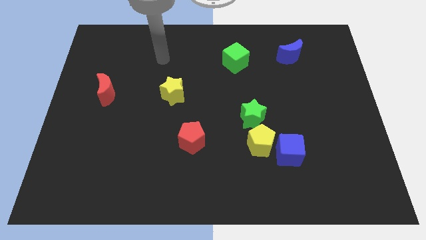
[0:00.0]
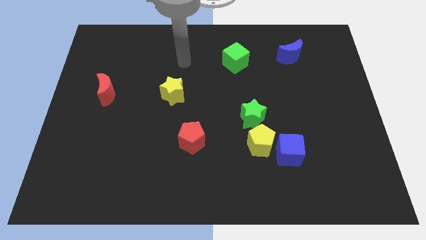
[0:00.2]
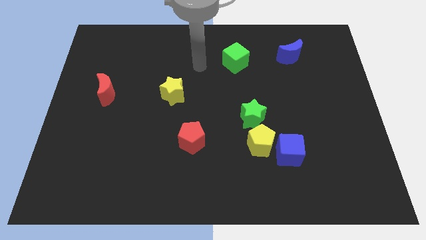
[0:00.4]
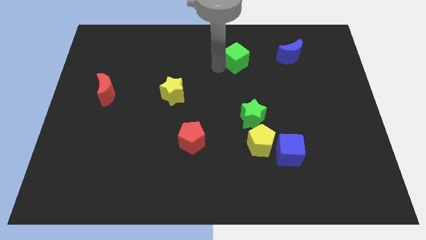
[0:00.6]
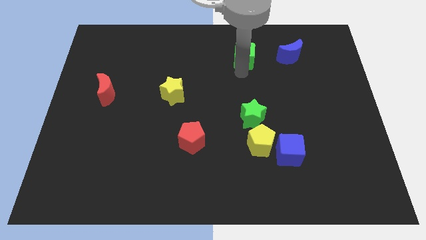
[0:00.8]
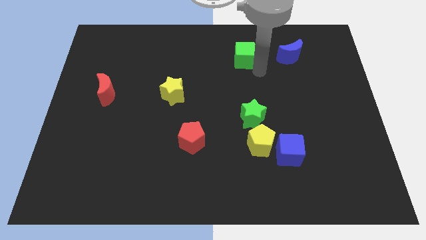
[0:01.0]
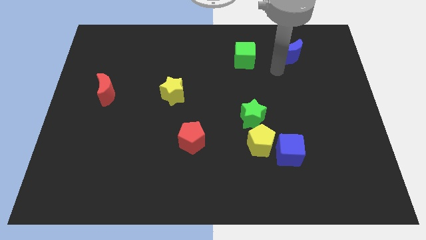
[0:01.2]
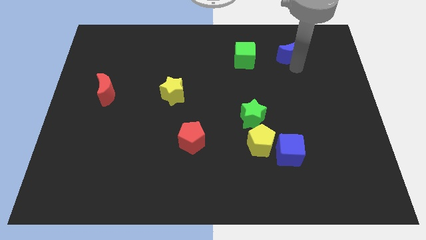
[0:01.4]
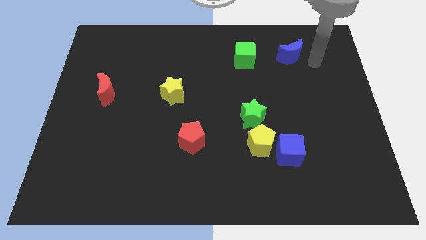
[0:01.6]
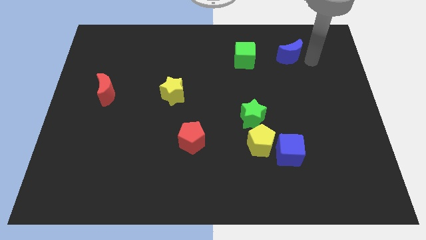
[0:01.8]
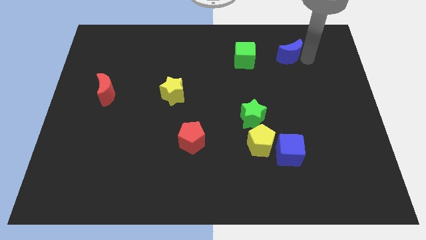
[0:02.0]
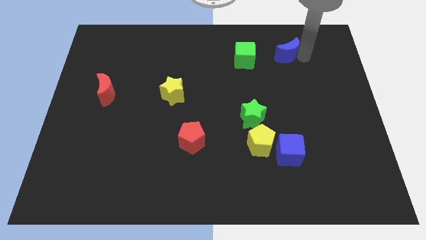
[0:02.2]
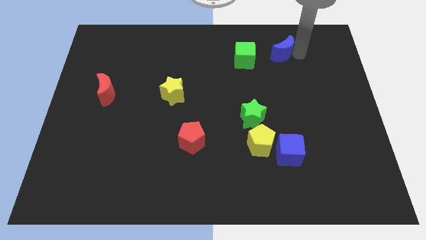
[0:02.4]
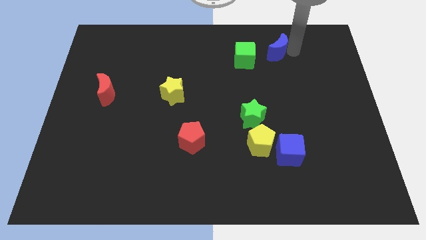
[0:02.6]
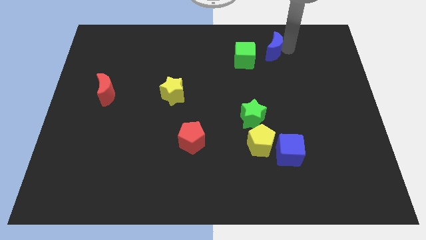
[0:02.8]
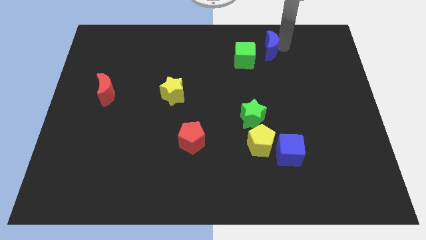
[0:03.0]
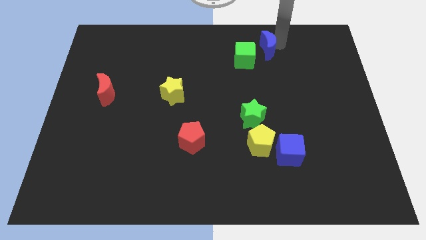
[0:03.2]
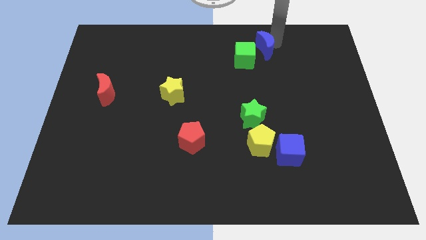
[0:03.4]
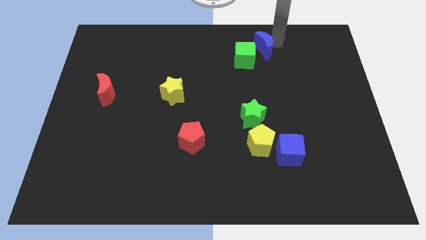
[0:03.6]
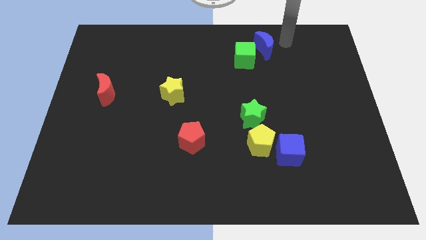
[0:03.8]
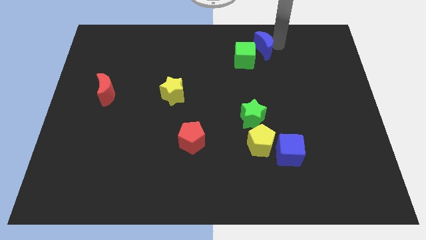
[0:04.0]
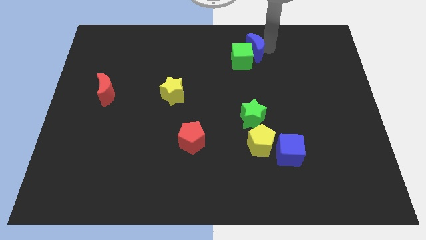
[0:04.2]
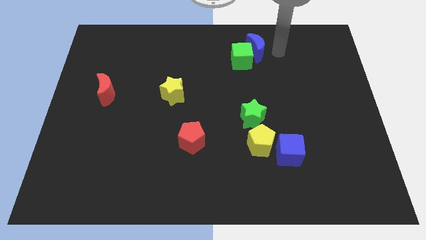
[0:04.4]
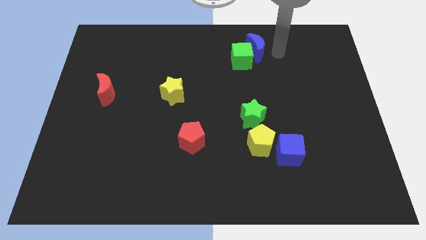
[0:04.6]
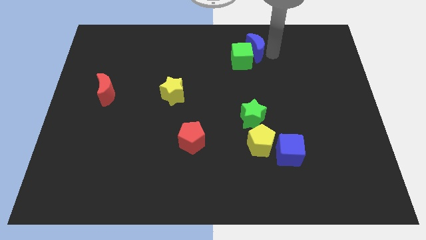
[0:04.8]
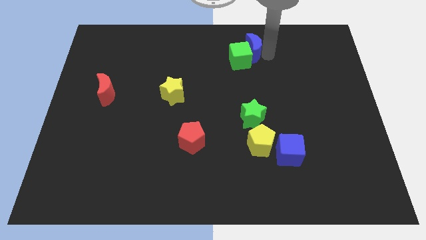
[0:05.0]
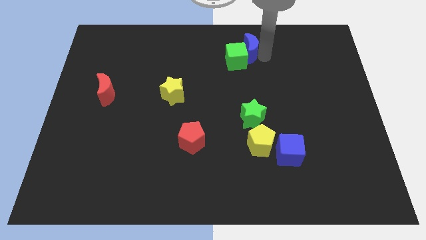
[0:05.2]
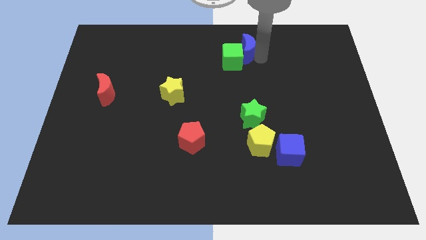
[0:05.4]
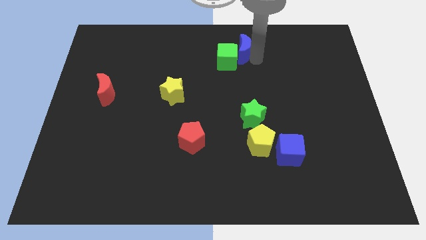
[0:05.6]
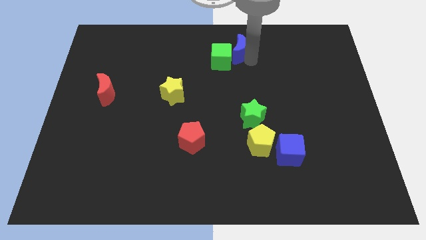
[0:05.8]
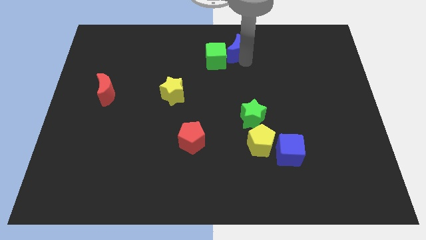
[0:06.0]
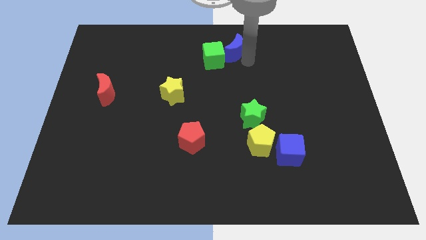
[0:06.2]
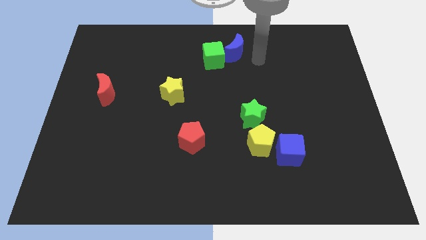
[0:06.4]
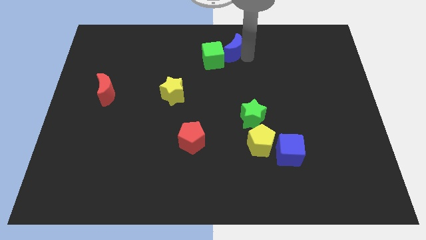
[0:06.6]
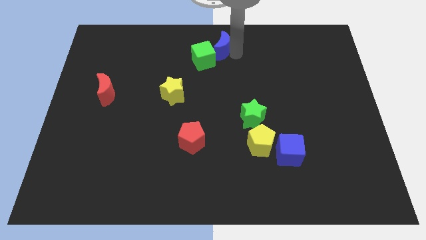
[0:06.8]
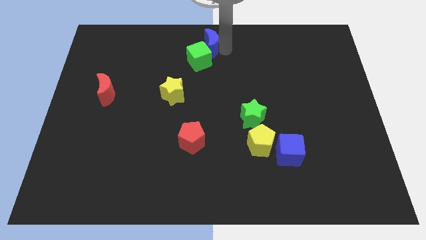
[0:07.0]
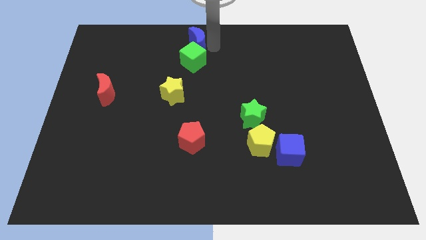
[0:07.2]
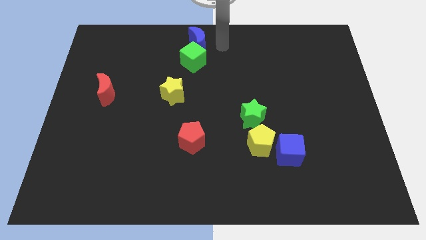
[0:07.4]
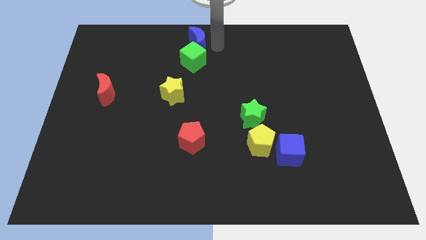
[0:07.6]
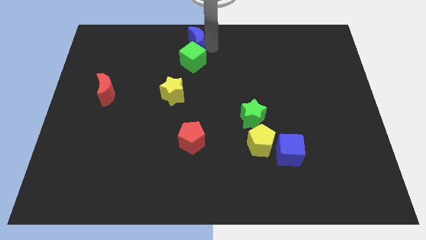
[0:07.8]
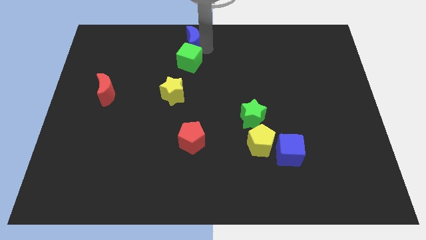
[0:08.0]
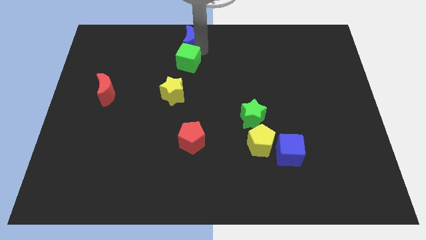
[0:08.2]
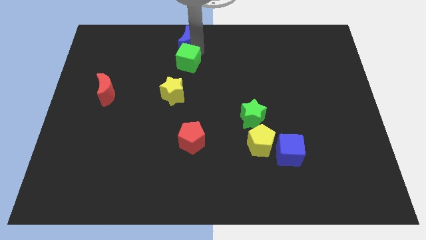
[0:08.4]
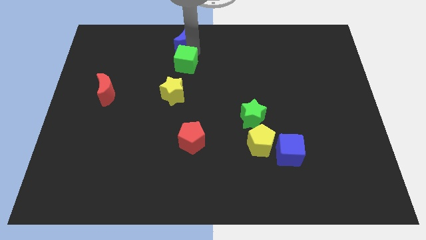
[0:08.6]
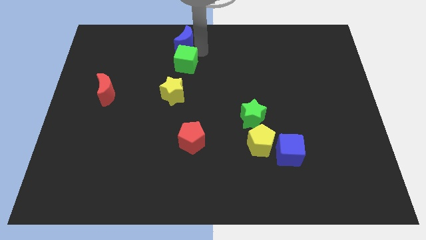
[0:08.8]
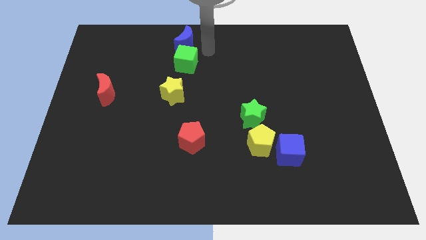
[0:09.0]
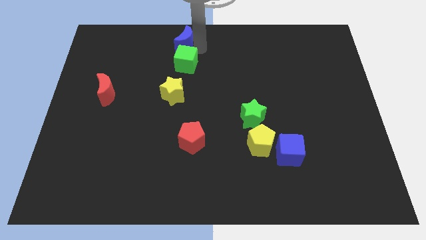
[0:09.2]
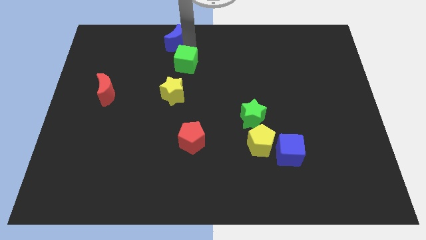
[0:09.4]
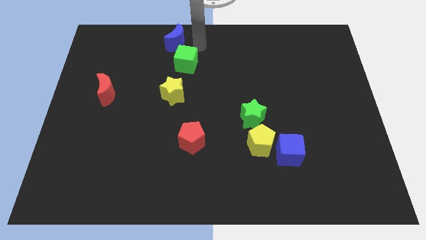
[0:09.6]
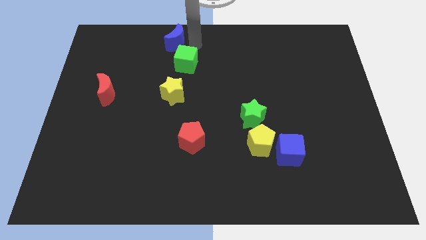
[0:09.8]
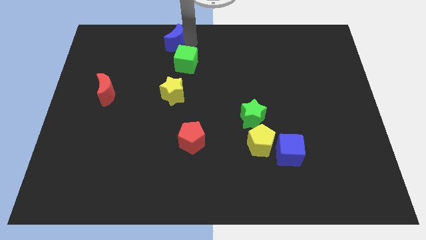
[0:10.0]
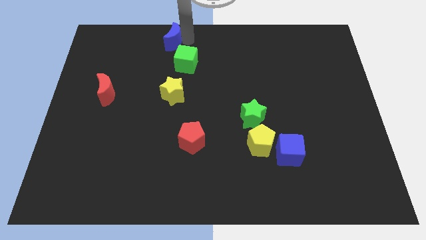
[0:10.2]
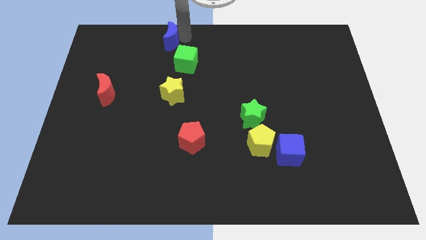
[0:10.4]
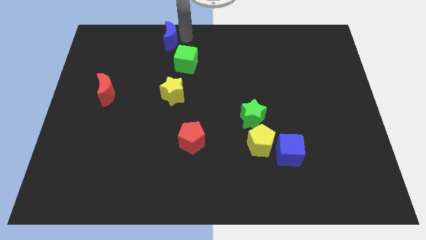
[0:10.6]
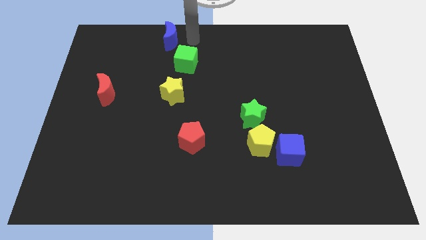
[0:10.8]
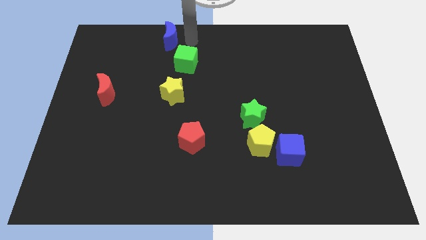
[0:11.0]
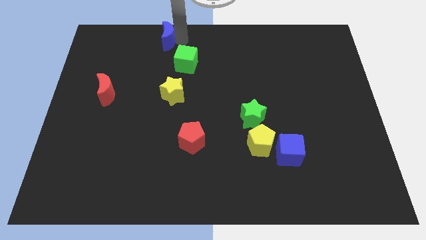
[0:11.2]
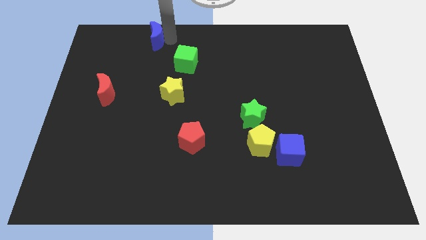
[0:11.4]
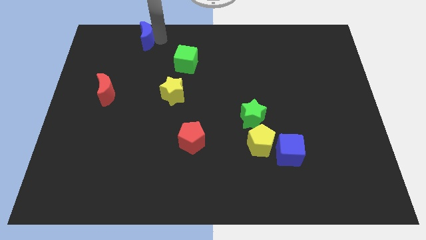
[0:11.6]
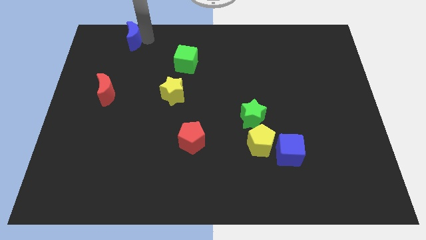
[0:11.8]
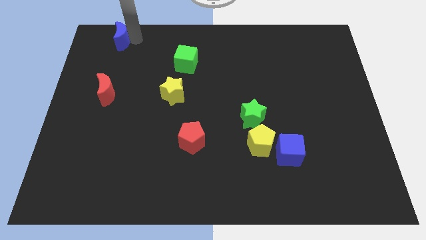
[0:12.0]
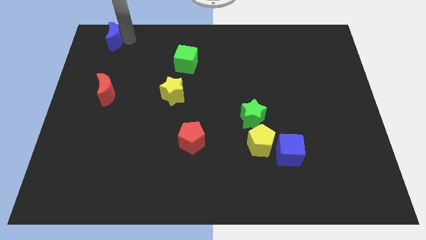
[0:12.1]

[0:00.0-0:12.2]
put the blue moon to the top left of the board
